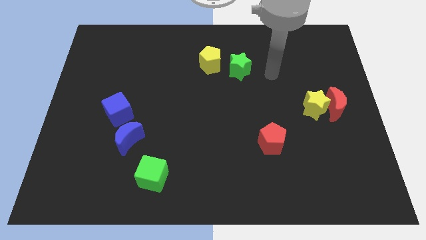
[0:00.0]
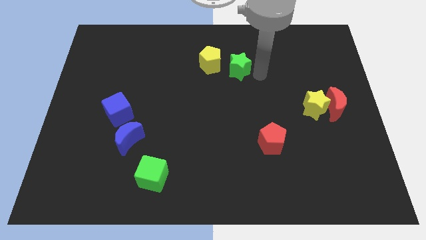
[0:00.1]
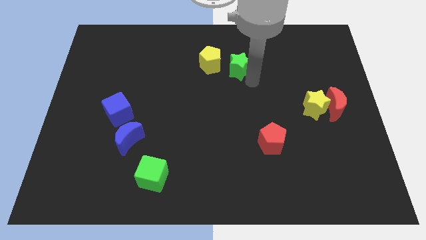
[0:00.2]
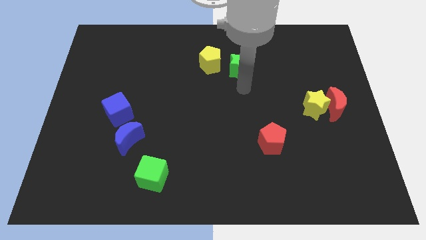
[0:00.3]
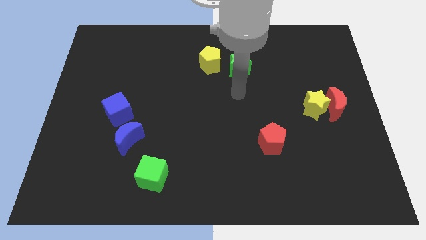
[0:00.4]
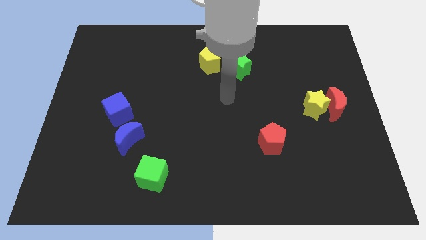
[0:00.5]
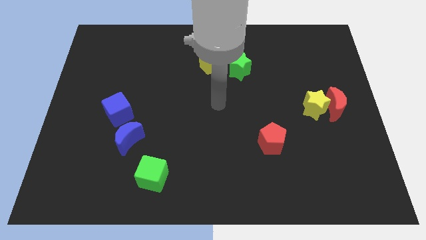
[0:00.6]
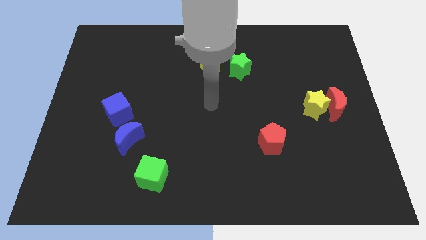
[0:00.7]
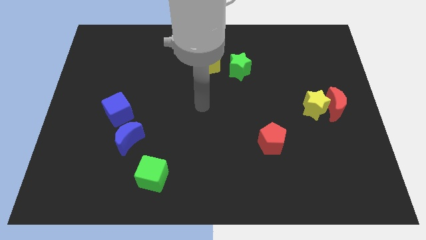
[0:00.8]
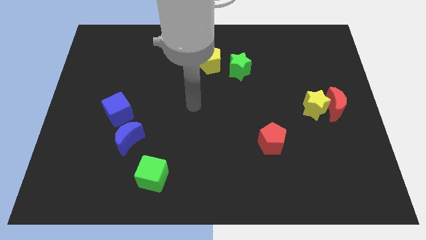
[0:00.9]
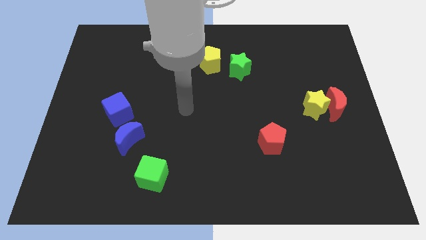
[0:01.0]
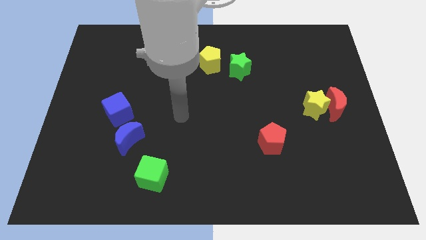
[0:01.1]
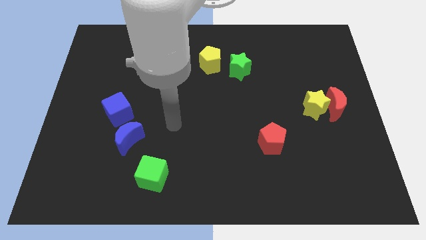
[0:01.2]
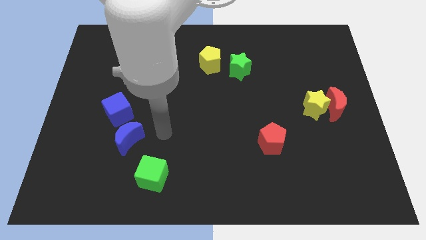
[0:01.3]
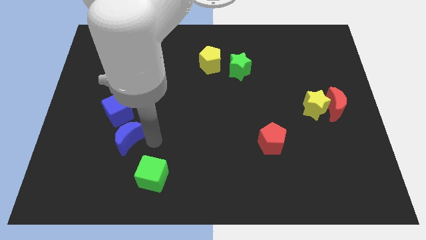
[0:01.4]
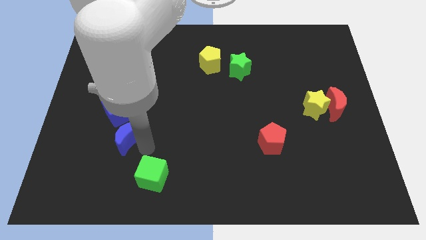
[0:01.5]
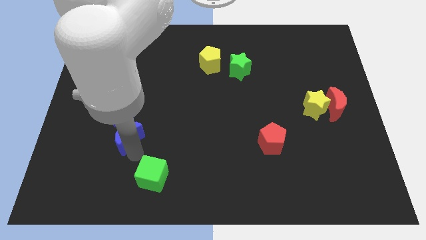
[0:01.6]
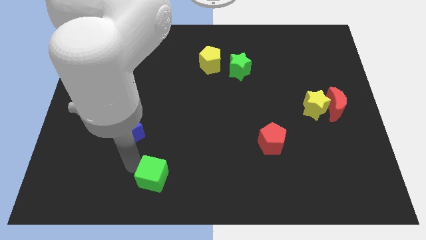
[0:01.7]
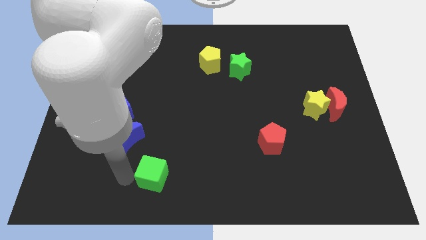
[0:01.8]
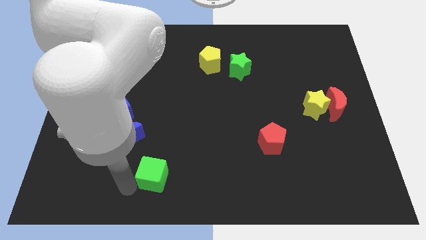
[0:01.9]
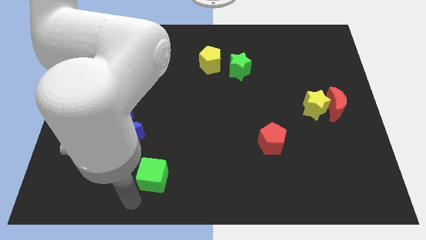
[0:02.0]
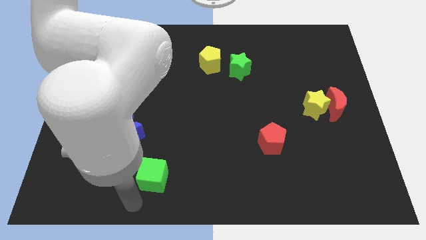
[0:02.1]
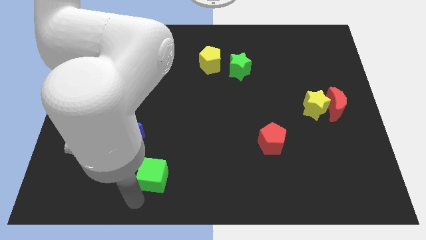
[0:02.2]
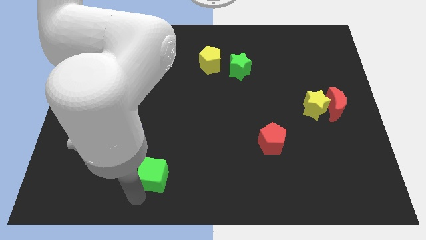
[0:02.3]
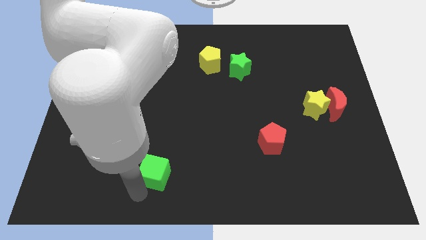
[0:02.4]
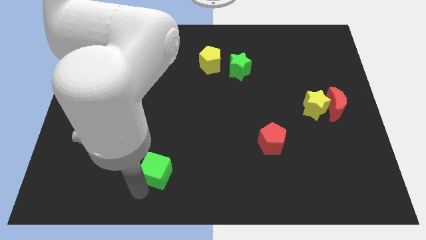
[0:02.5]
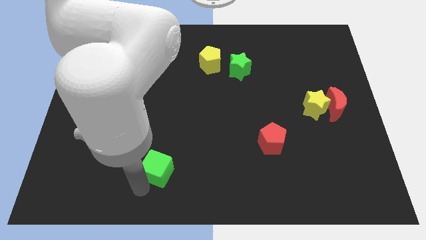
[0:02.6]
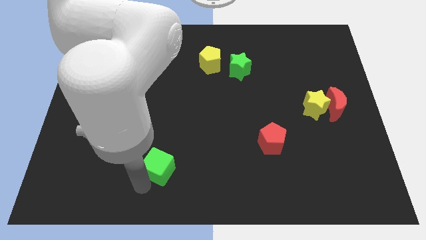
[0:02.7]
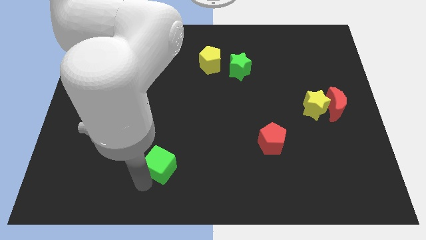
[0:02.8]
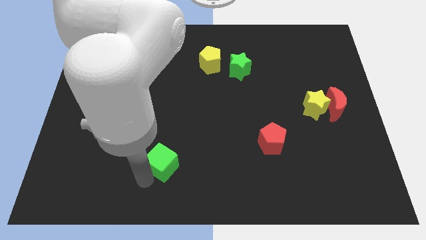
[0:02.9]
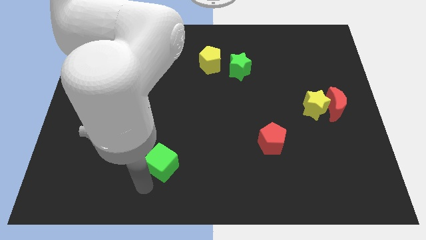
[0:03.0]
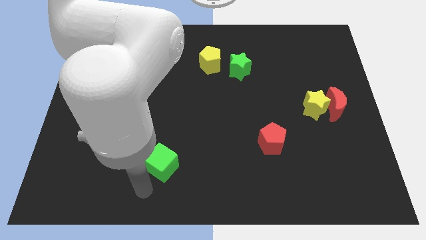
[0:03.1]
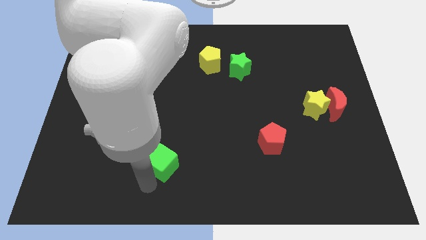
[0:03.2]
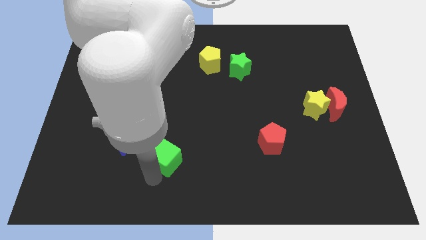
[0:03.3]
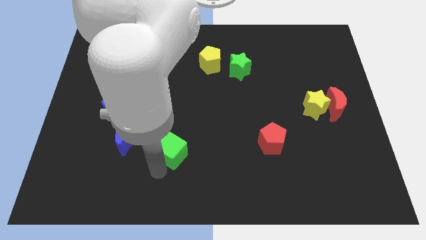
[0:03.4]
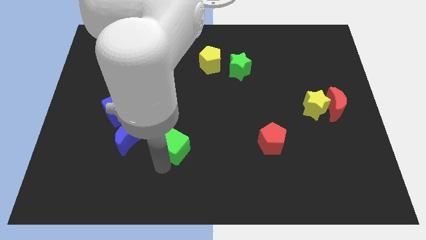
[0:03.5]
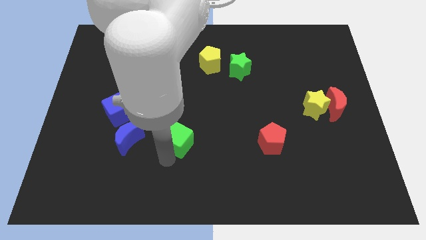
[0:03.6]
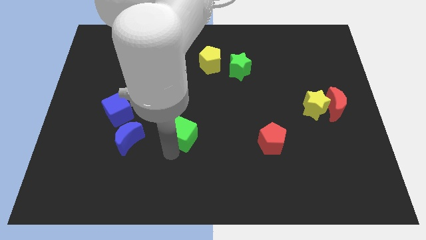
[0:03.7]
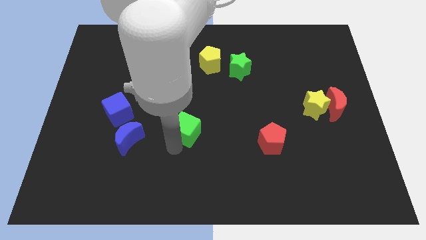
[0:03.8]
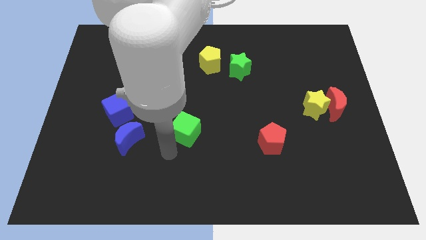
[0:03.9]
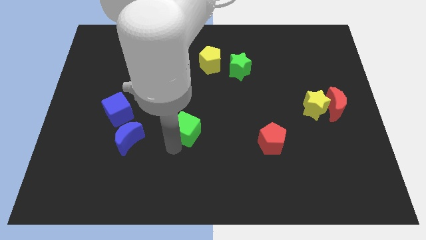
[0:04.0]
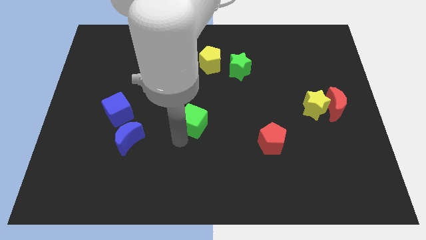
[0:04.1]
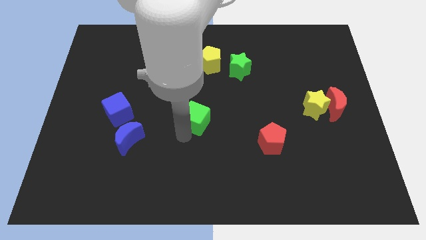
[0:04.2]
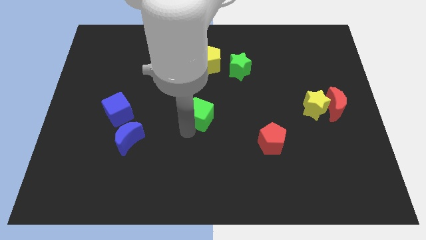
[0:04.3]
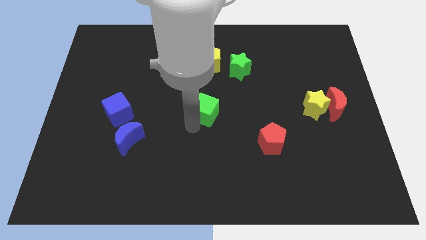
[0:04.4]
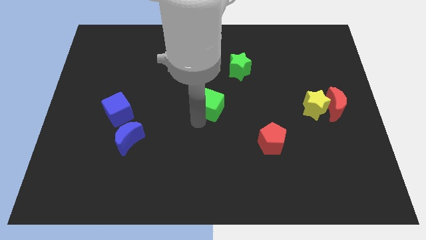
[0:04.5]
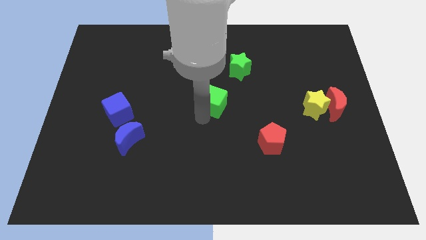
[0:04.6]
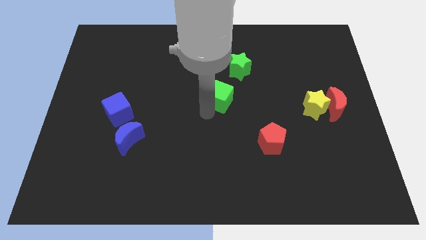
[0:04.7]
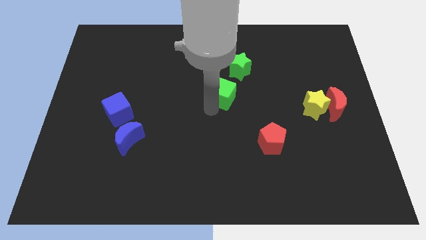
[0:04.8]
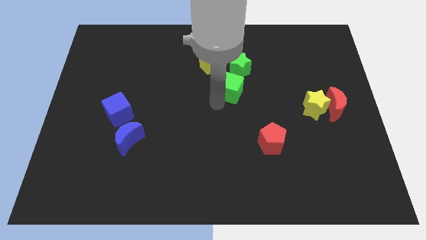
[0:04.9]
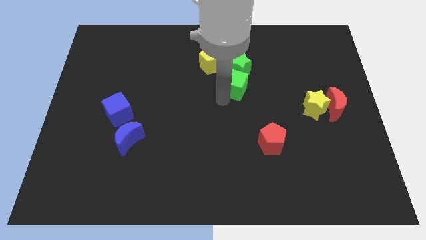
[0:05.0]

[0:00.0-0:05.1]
push the green cube to the green star

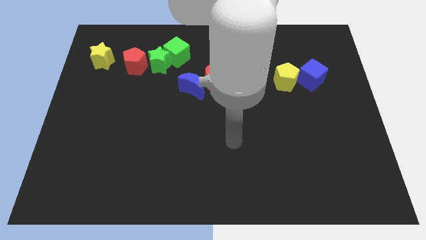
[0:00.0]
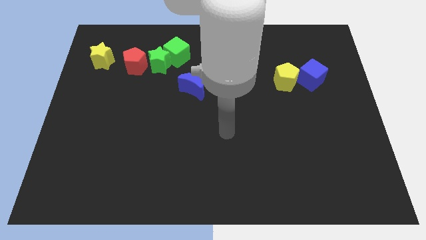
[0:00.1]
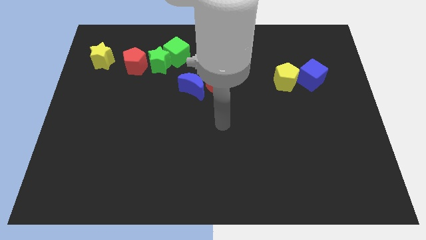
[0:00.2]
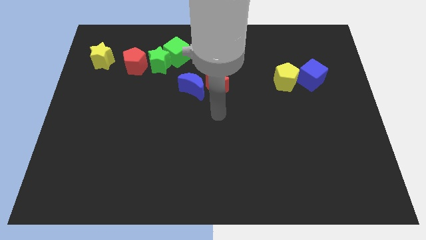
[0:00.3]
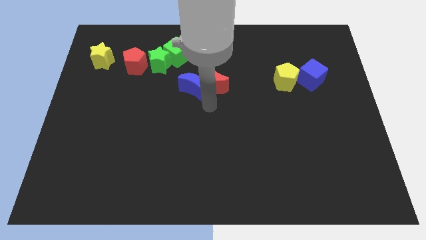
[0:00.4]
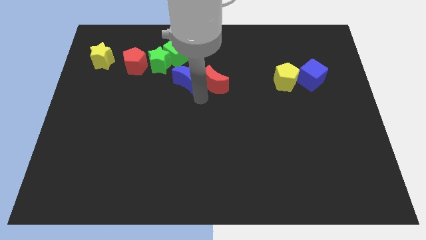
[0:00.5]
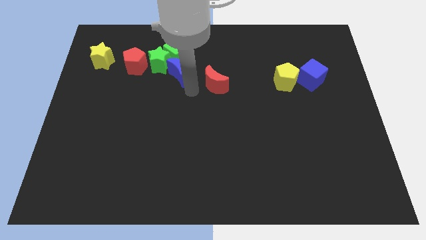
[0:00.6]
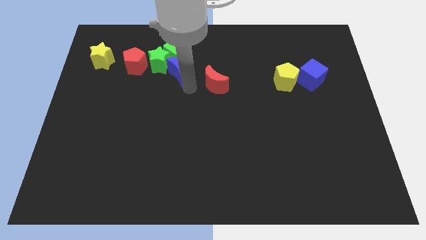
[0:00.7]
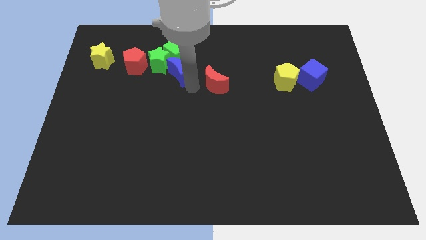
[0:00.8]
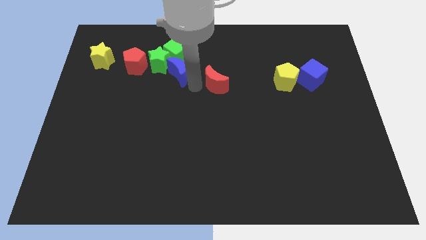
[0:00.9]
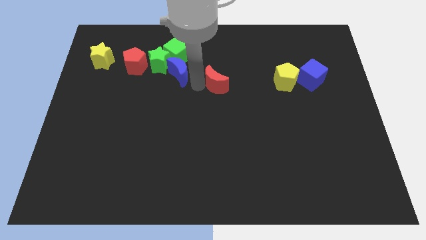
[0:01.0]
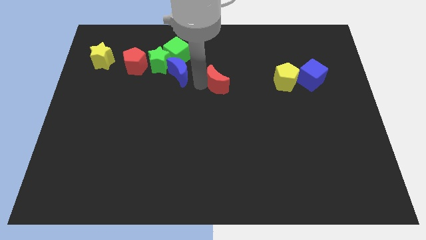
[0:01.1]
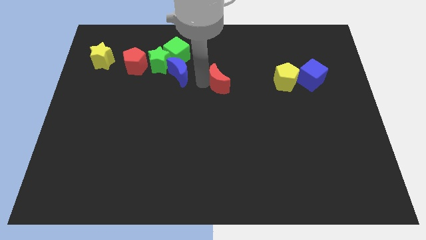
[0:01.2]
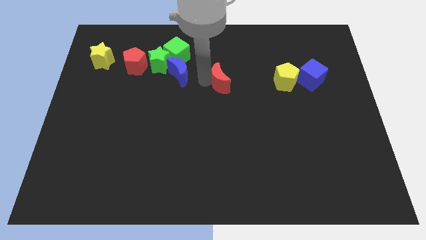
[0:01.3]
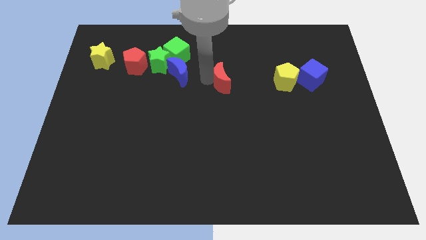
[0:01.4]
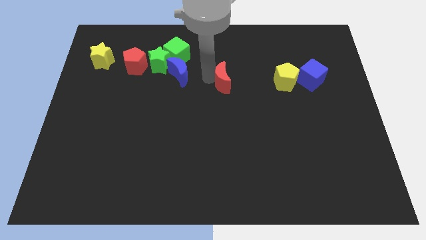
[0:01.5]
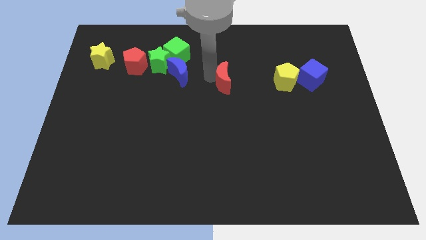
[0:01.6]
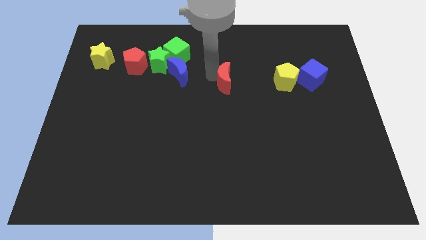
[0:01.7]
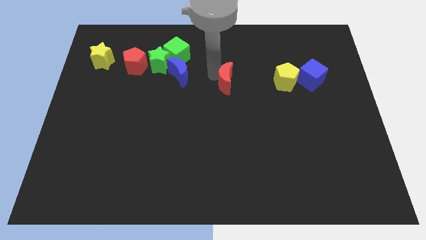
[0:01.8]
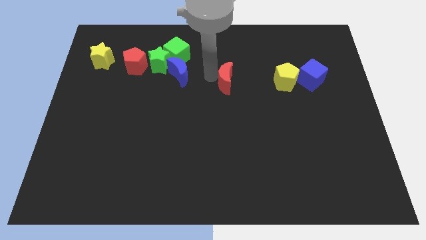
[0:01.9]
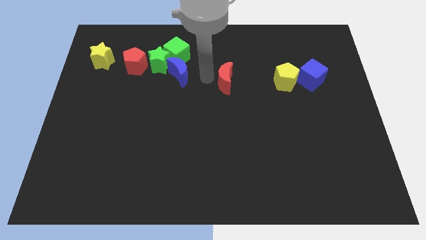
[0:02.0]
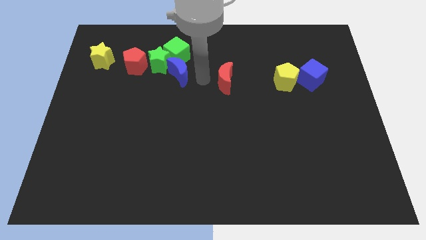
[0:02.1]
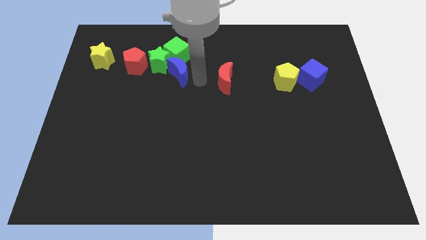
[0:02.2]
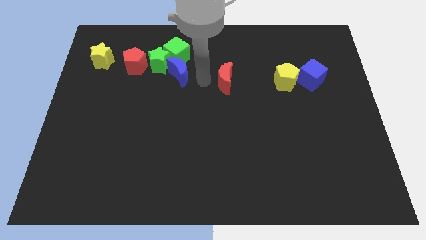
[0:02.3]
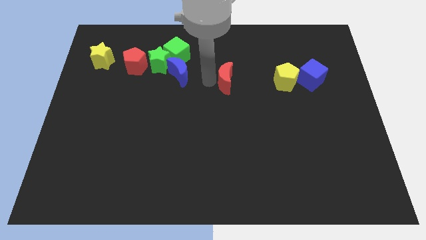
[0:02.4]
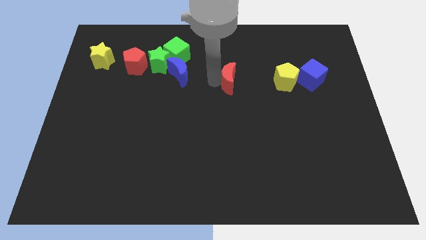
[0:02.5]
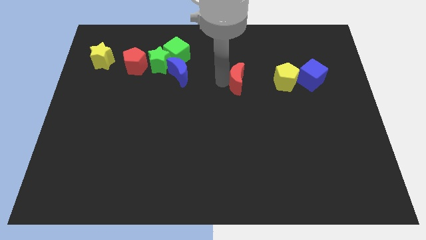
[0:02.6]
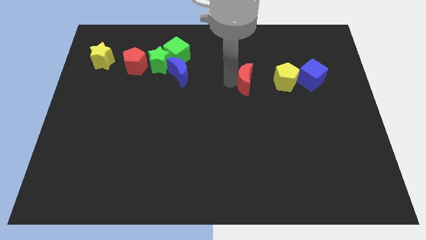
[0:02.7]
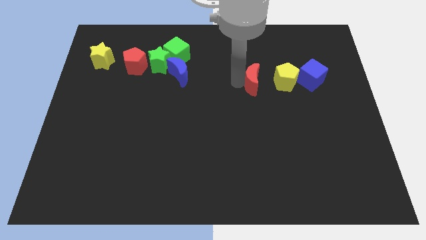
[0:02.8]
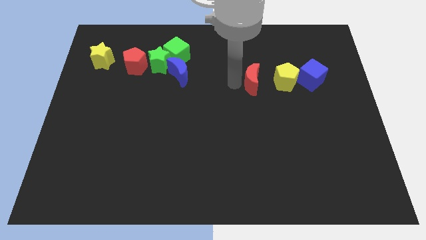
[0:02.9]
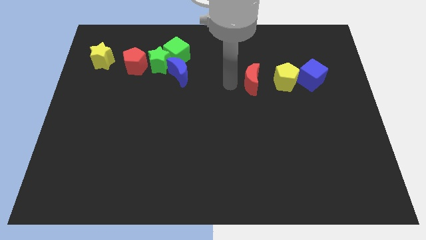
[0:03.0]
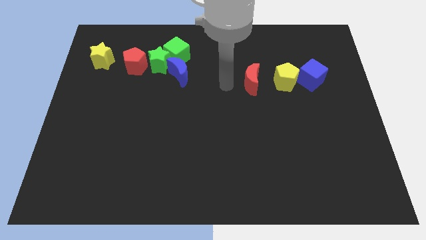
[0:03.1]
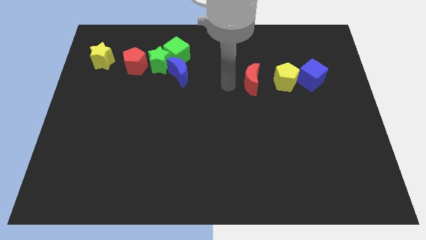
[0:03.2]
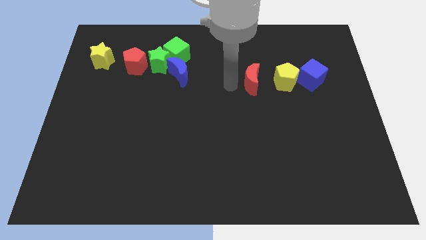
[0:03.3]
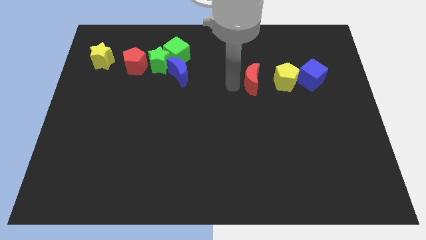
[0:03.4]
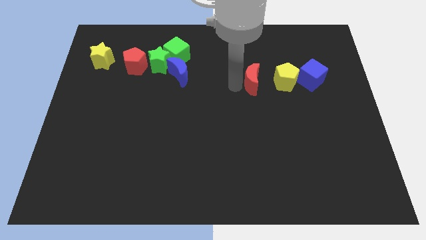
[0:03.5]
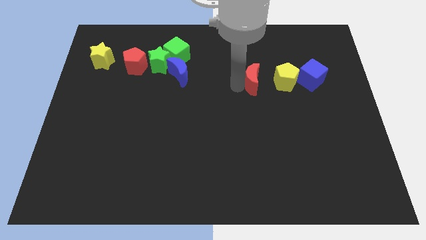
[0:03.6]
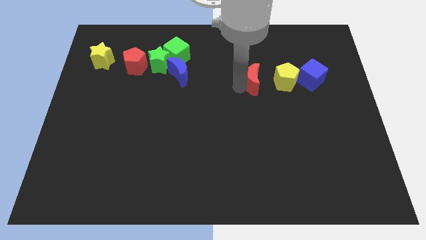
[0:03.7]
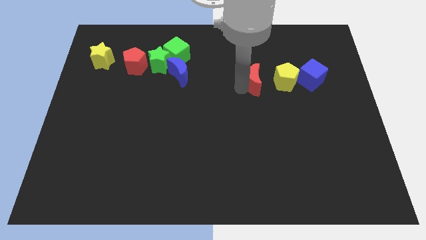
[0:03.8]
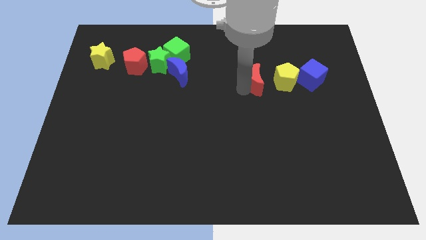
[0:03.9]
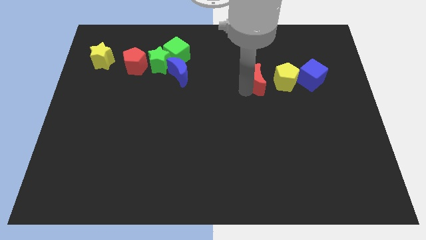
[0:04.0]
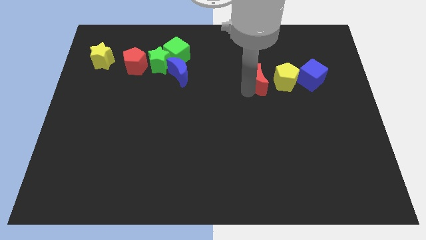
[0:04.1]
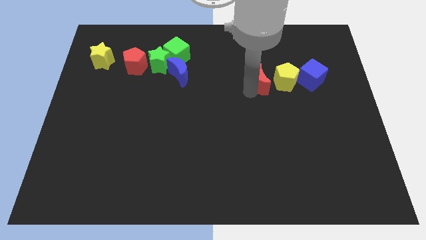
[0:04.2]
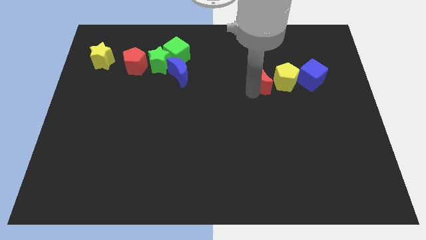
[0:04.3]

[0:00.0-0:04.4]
move the red moon next to the yellow pentagon
